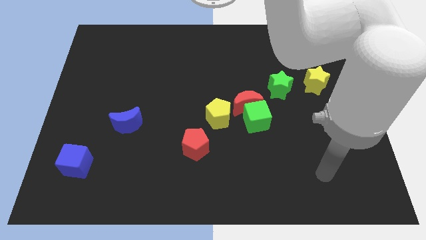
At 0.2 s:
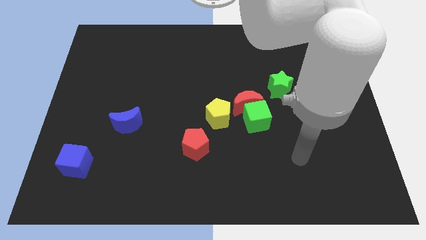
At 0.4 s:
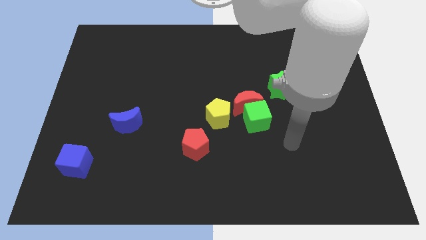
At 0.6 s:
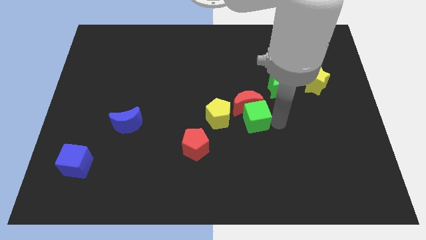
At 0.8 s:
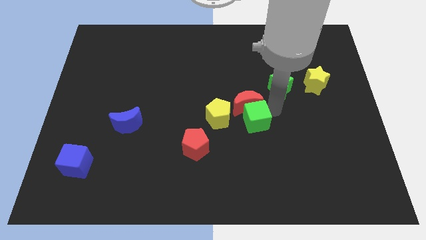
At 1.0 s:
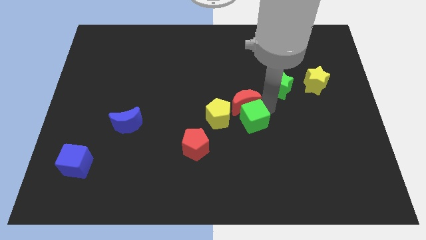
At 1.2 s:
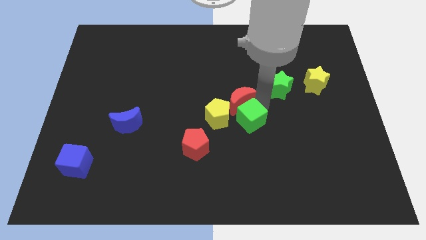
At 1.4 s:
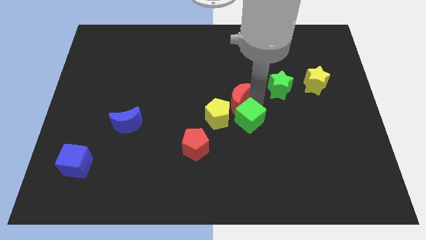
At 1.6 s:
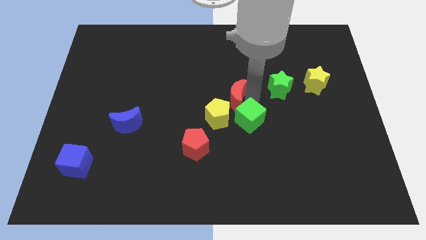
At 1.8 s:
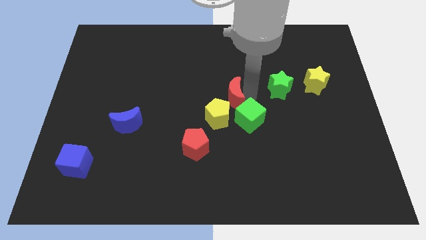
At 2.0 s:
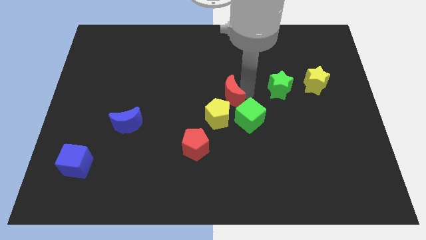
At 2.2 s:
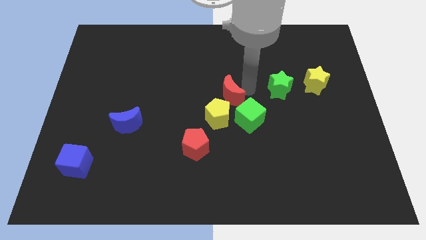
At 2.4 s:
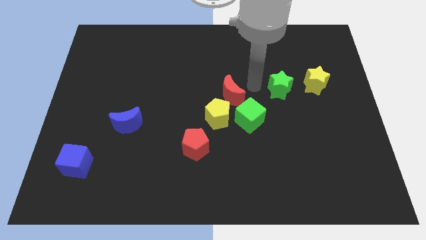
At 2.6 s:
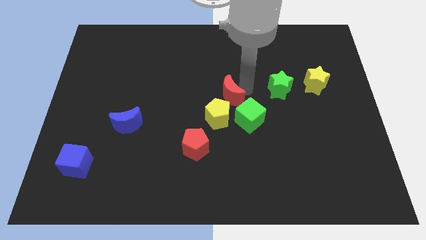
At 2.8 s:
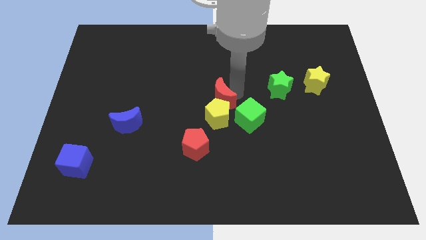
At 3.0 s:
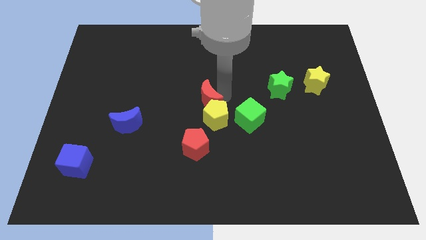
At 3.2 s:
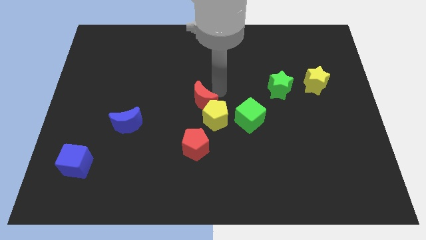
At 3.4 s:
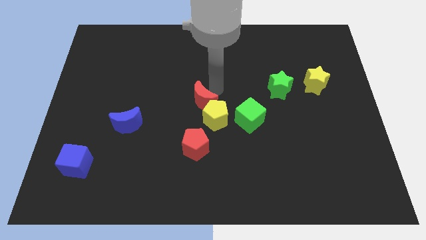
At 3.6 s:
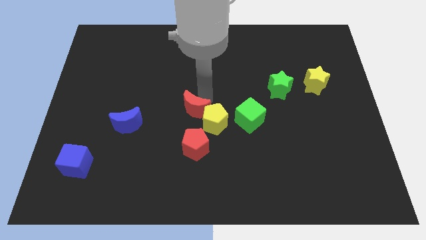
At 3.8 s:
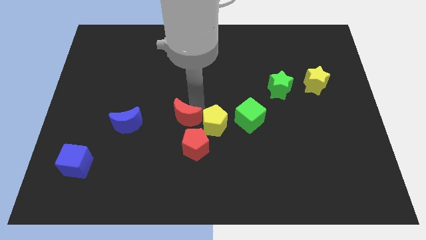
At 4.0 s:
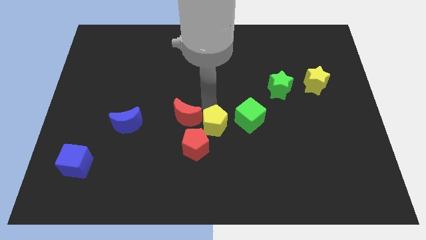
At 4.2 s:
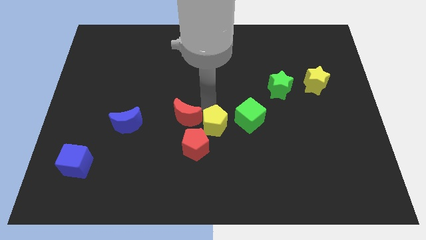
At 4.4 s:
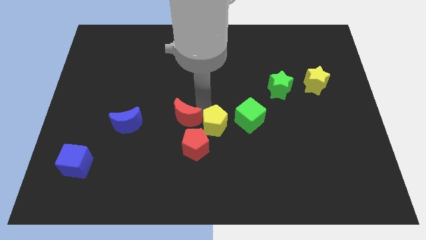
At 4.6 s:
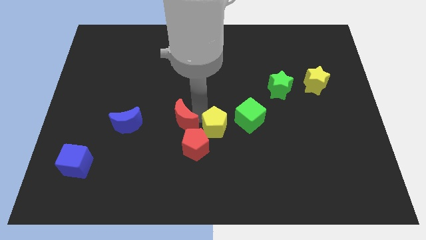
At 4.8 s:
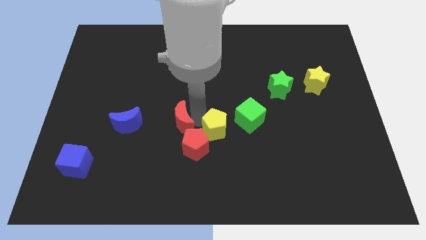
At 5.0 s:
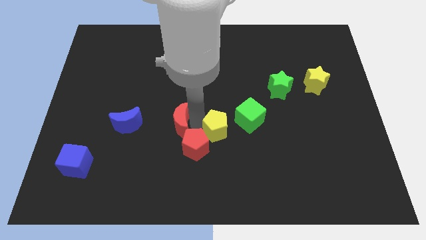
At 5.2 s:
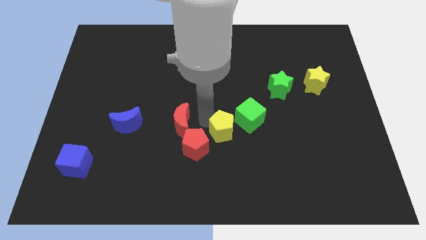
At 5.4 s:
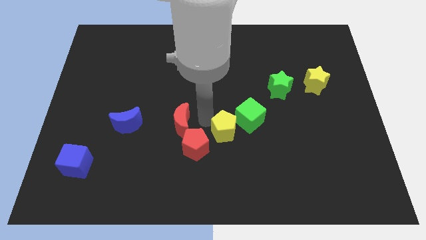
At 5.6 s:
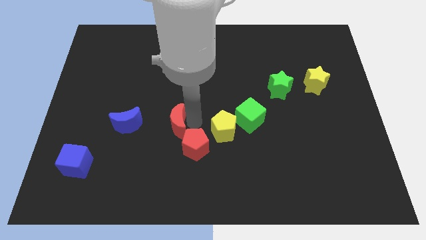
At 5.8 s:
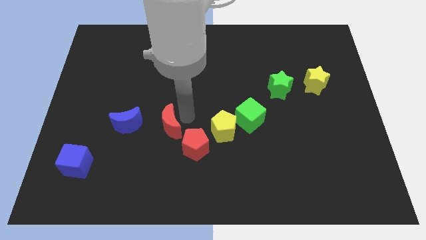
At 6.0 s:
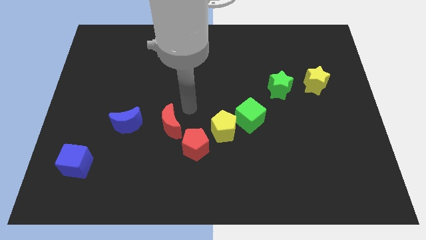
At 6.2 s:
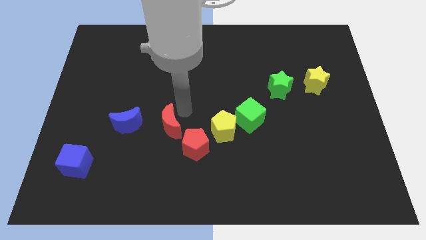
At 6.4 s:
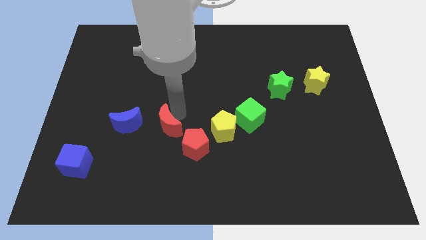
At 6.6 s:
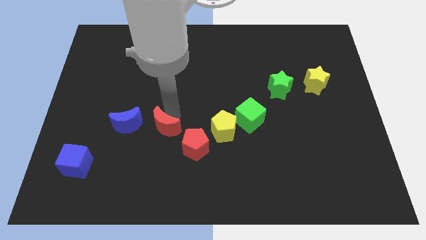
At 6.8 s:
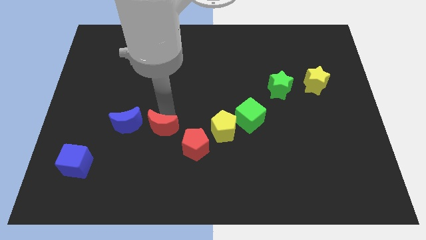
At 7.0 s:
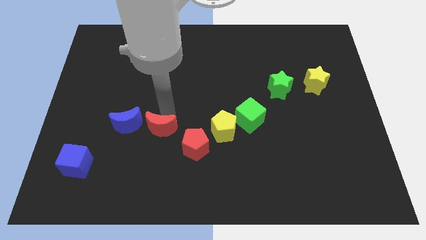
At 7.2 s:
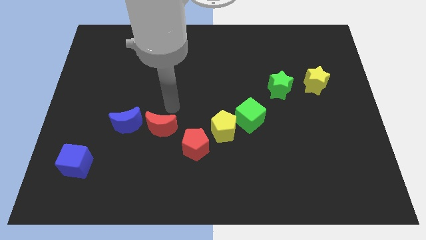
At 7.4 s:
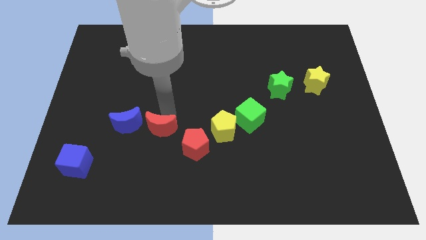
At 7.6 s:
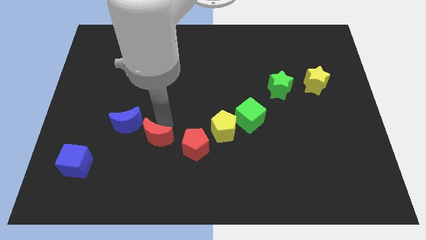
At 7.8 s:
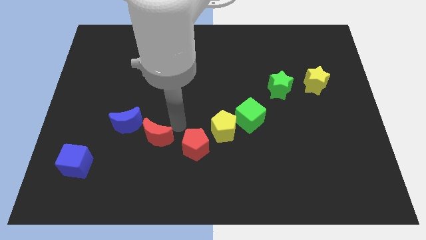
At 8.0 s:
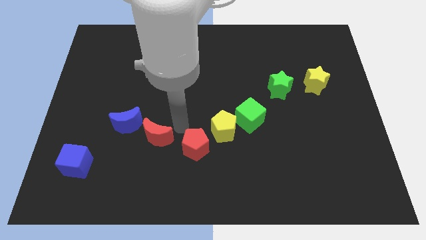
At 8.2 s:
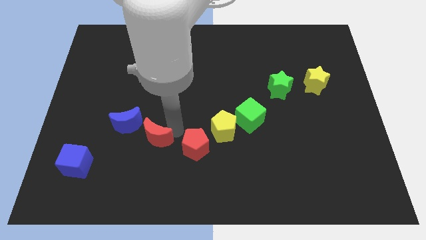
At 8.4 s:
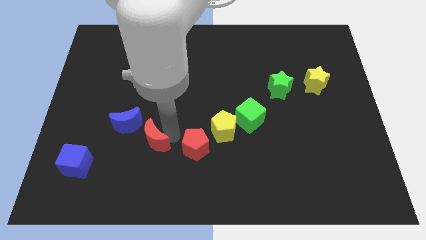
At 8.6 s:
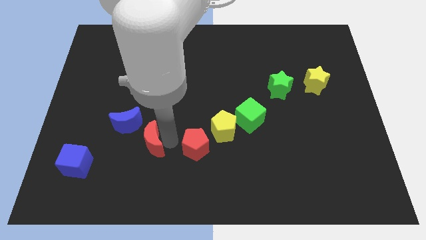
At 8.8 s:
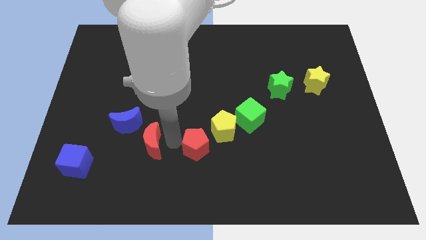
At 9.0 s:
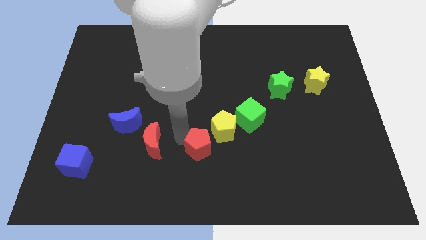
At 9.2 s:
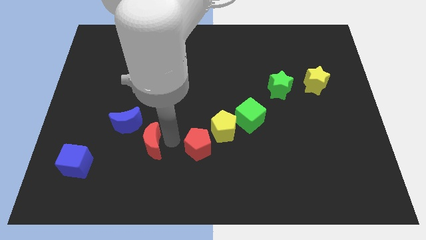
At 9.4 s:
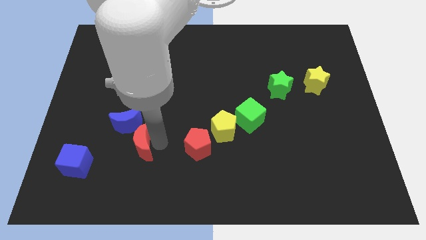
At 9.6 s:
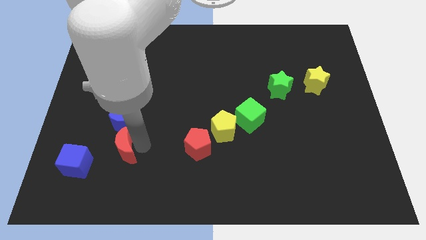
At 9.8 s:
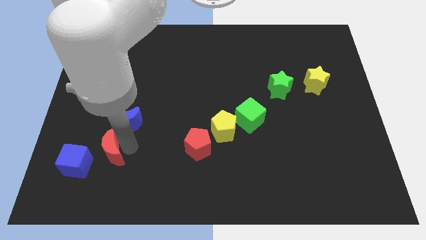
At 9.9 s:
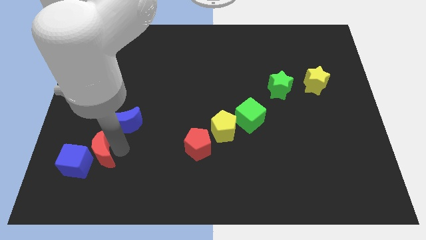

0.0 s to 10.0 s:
put the red moon towards the blue cube

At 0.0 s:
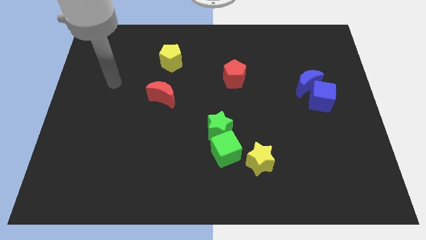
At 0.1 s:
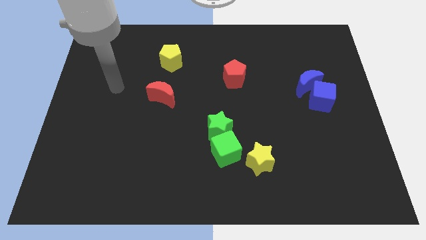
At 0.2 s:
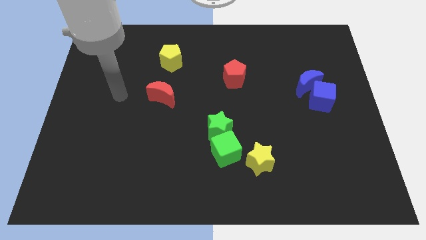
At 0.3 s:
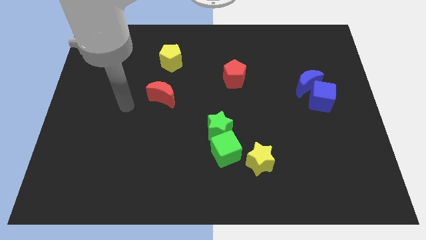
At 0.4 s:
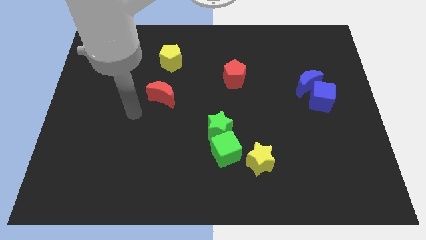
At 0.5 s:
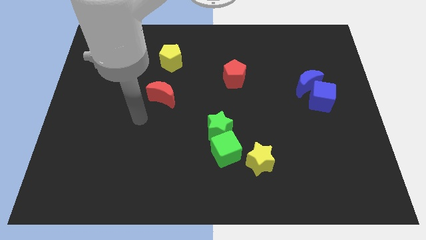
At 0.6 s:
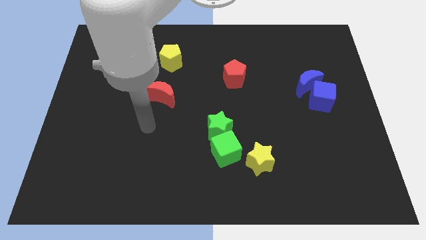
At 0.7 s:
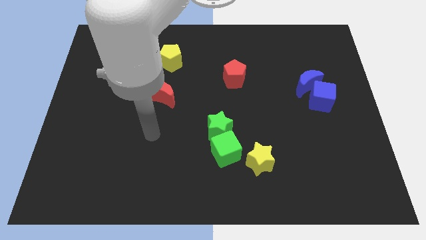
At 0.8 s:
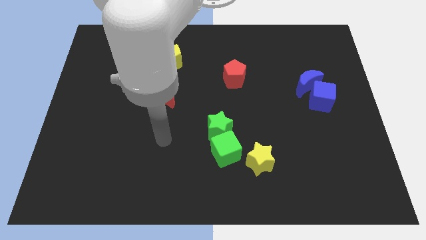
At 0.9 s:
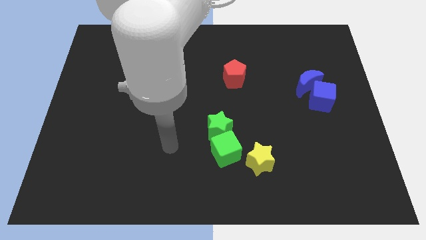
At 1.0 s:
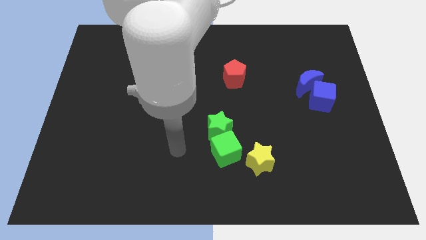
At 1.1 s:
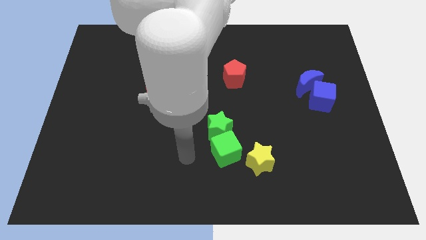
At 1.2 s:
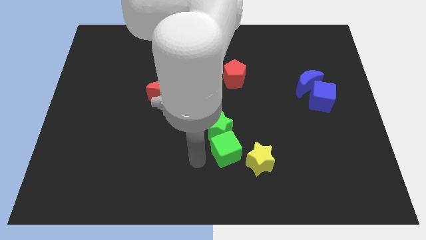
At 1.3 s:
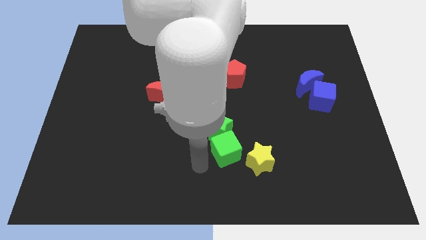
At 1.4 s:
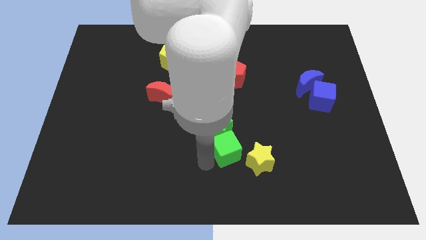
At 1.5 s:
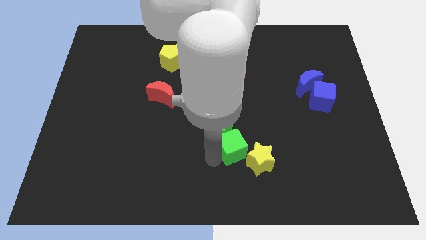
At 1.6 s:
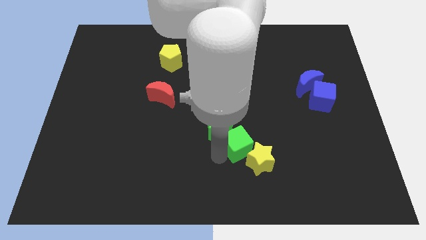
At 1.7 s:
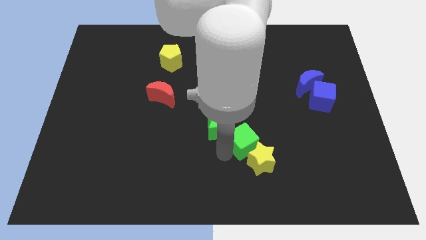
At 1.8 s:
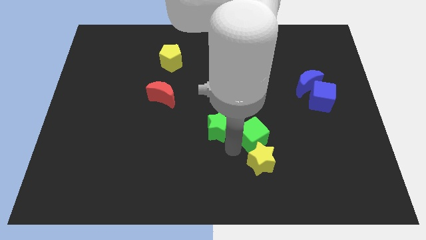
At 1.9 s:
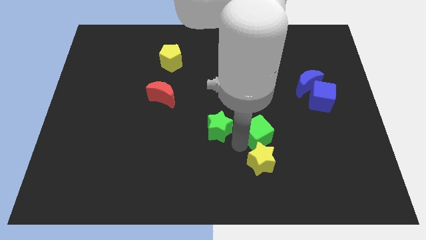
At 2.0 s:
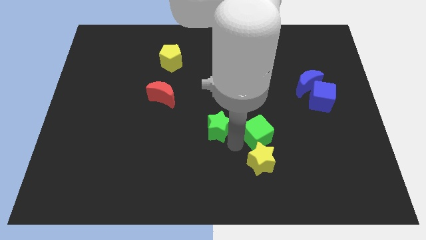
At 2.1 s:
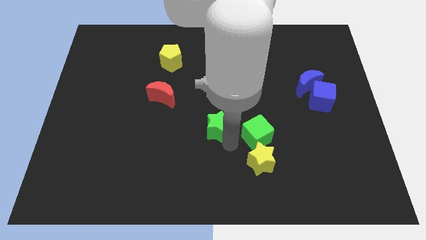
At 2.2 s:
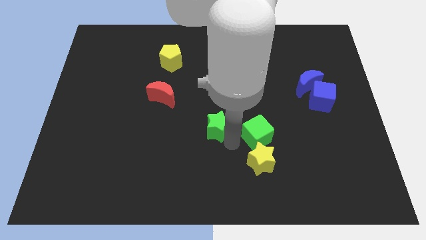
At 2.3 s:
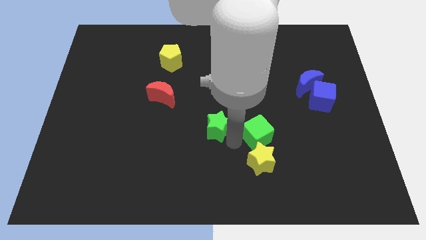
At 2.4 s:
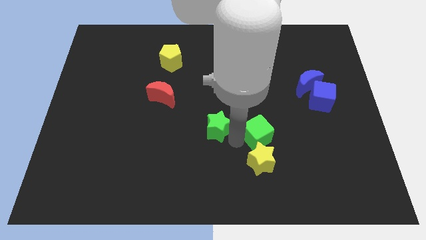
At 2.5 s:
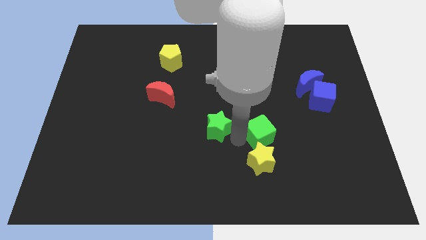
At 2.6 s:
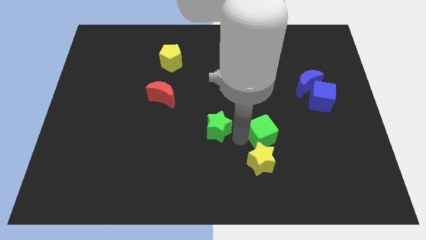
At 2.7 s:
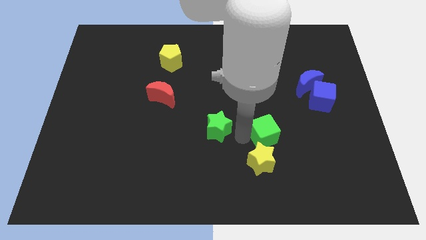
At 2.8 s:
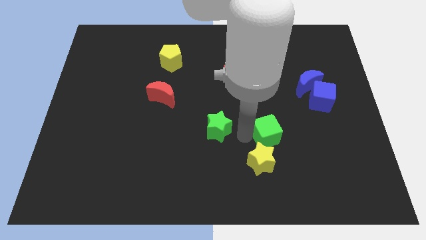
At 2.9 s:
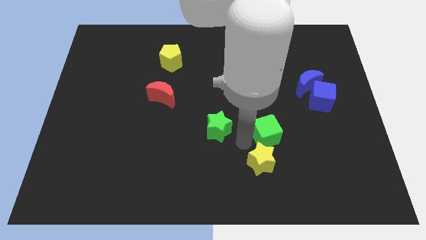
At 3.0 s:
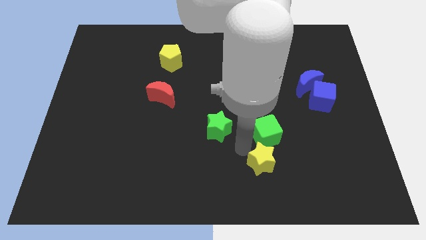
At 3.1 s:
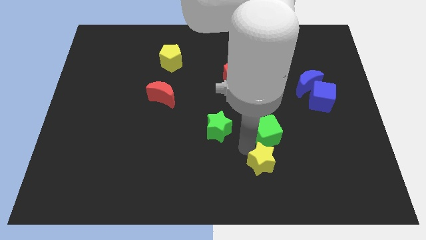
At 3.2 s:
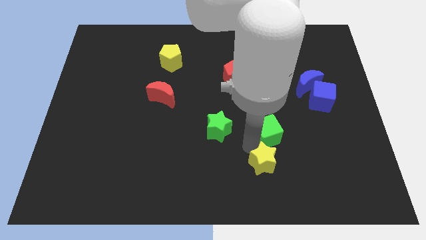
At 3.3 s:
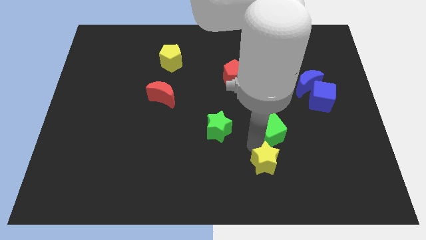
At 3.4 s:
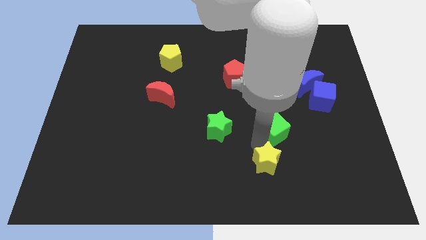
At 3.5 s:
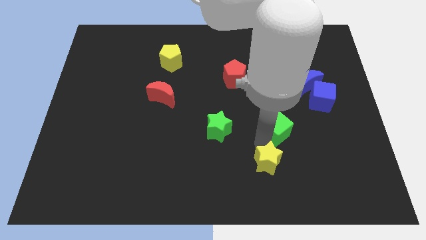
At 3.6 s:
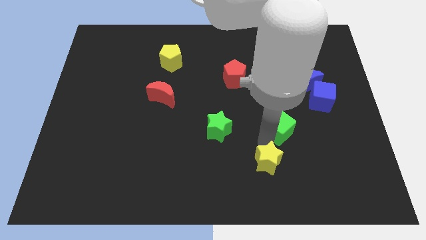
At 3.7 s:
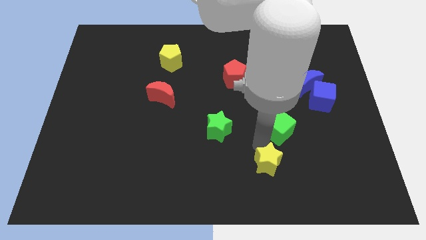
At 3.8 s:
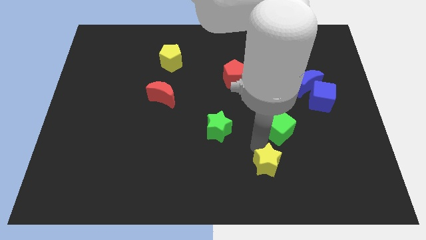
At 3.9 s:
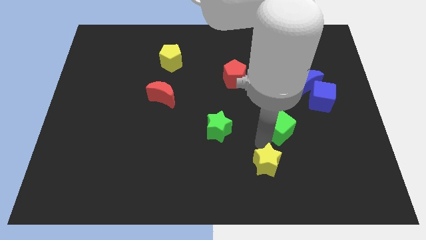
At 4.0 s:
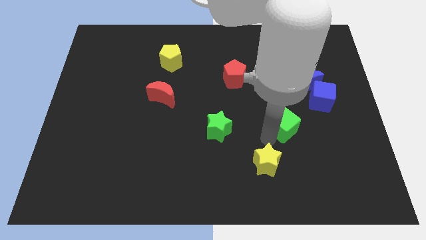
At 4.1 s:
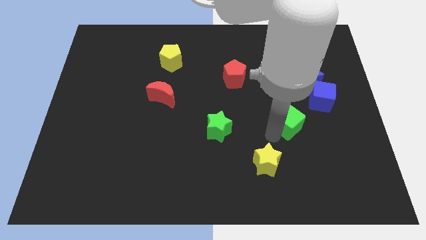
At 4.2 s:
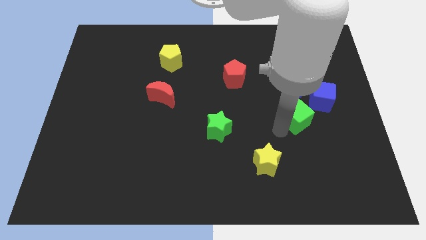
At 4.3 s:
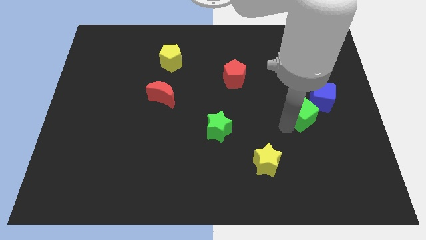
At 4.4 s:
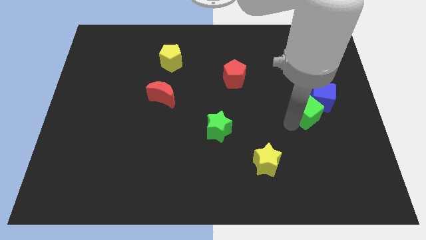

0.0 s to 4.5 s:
put the green cube next to the blue cube
